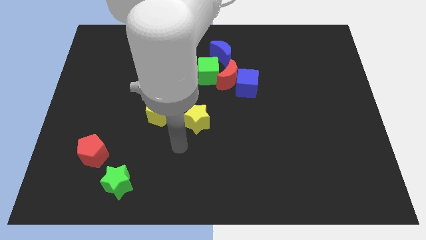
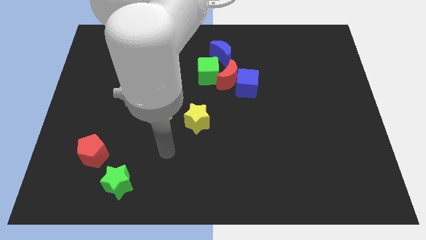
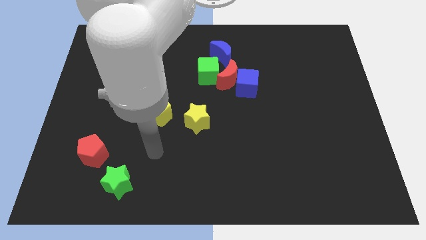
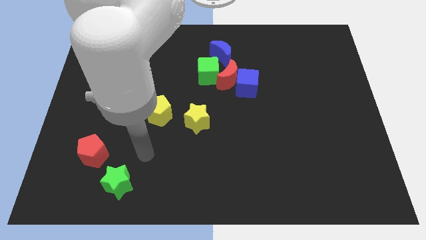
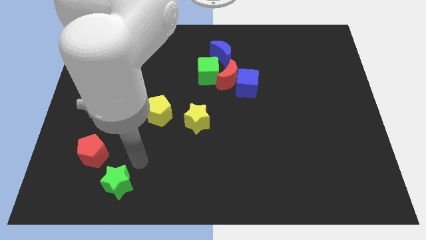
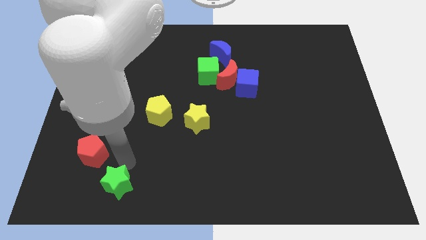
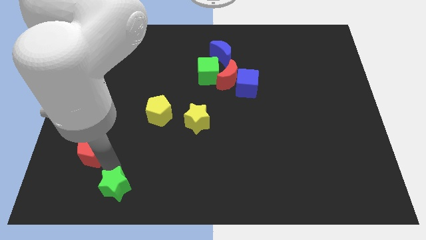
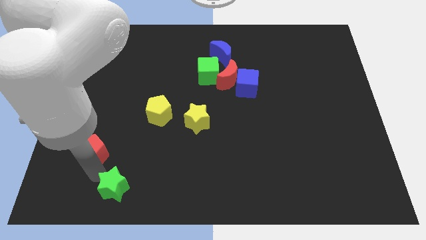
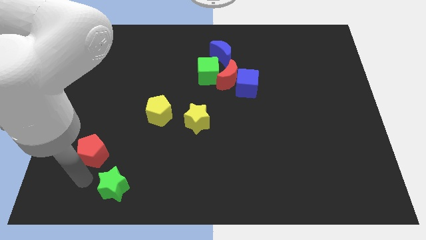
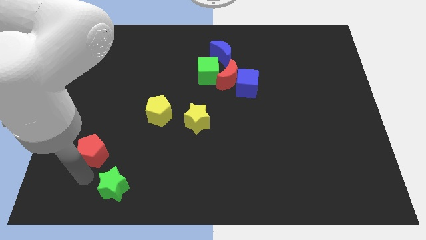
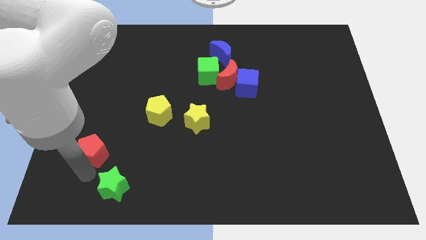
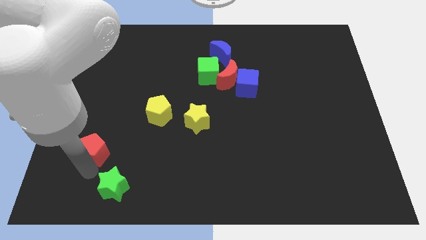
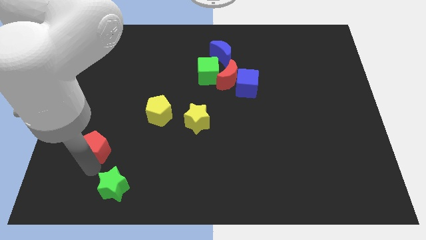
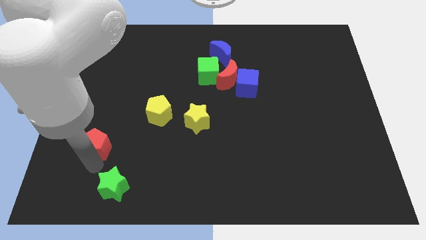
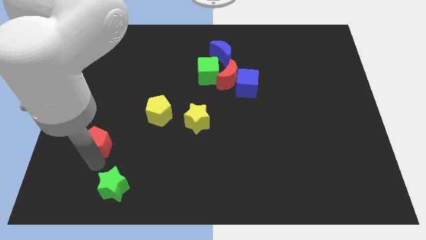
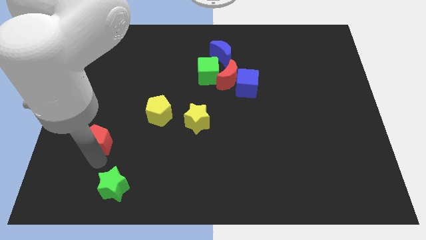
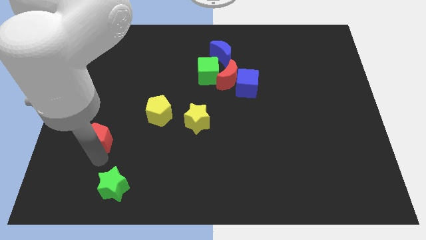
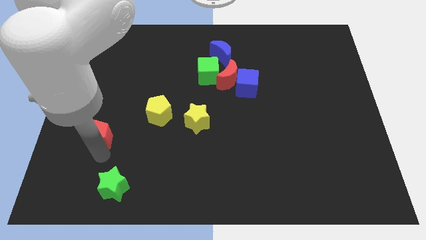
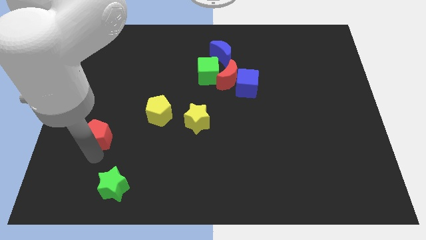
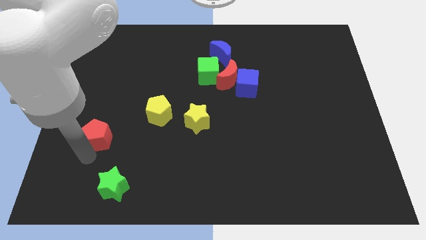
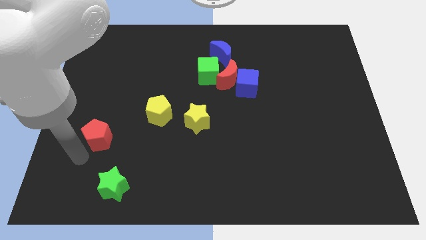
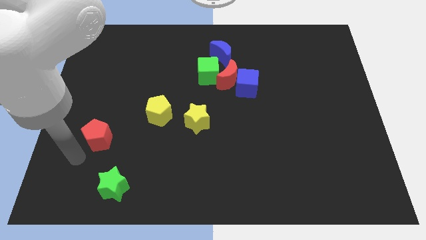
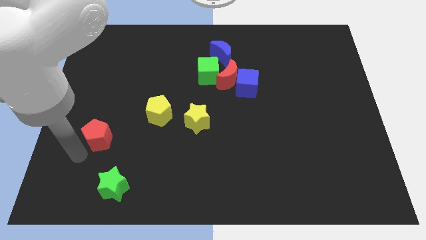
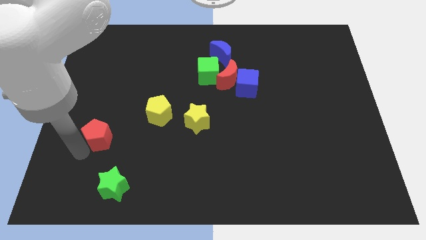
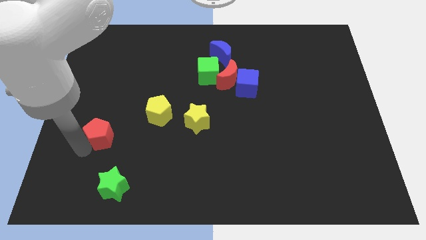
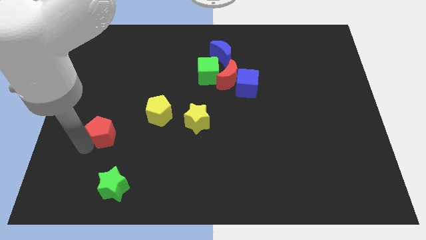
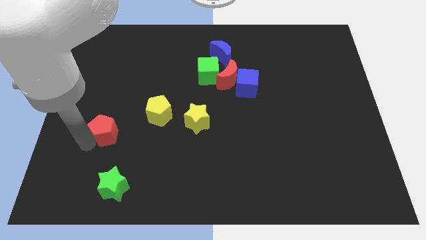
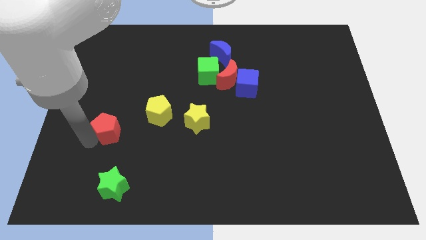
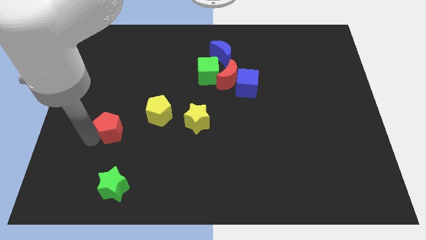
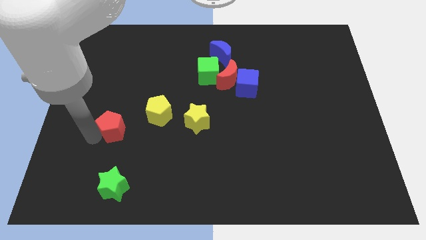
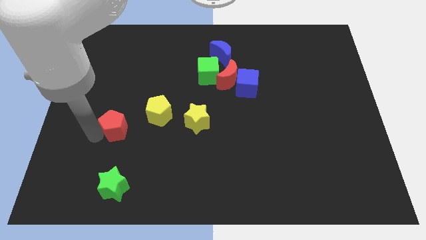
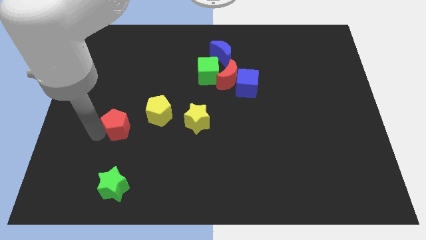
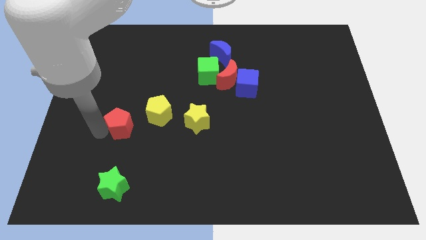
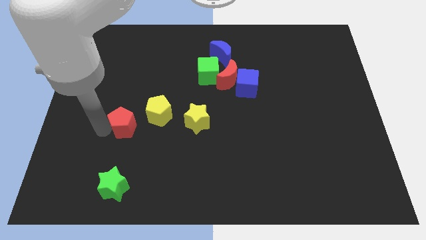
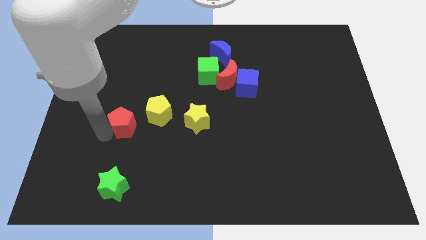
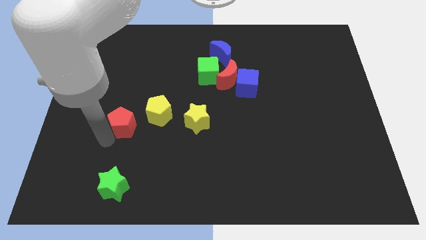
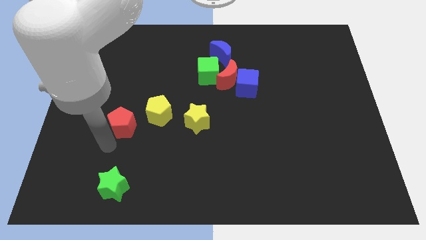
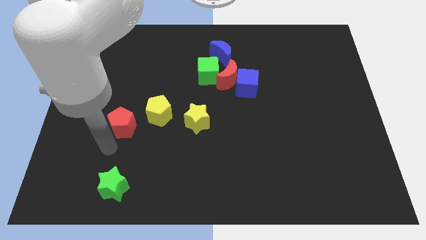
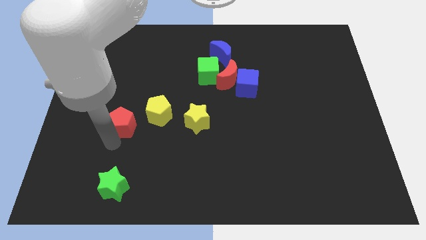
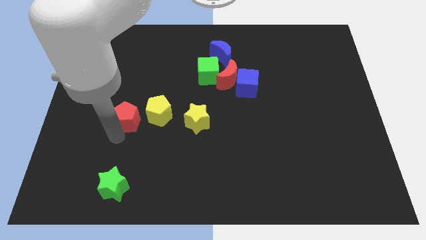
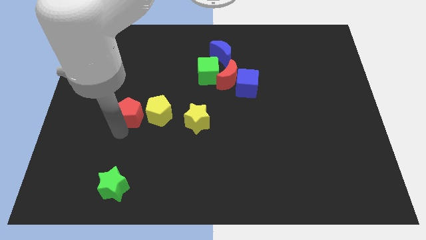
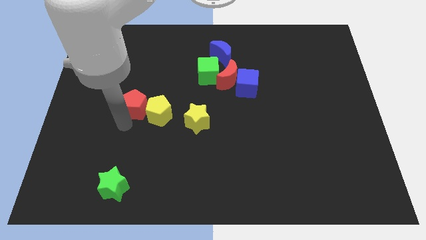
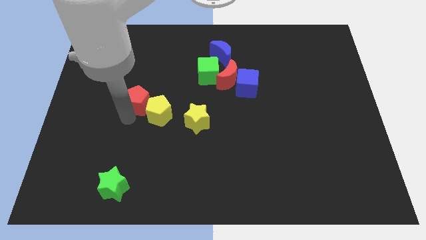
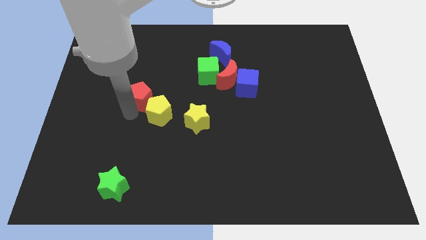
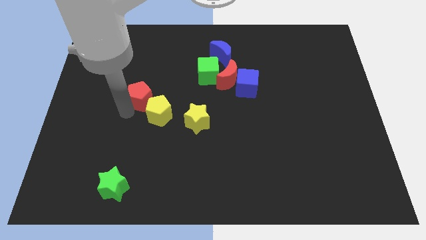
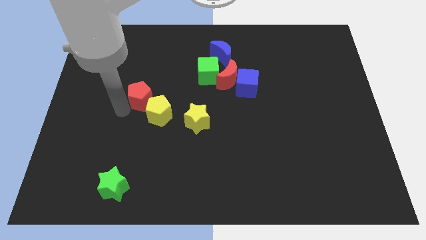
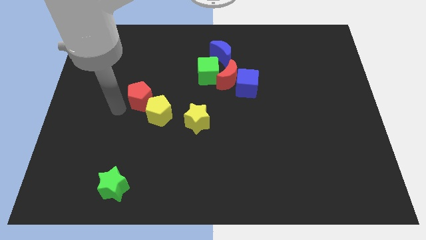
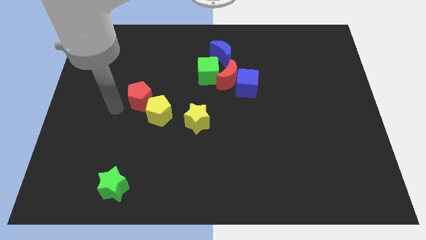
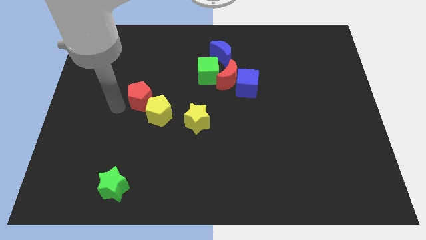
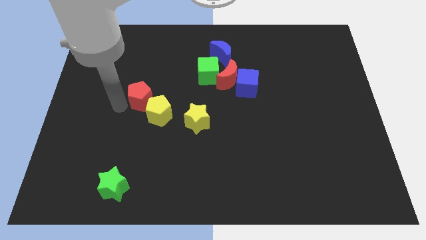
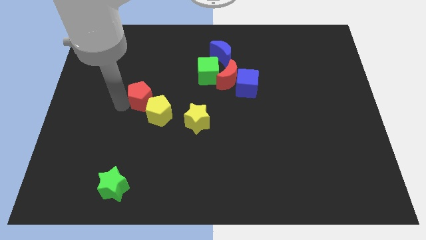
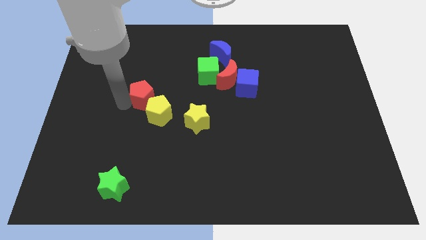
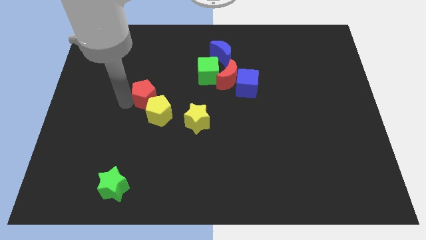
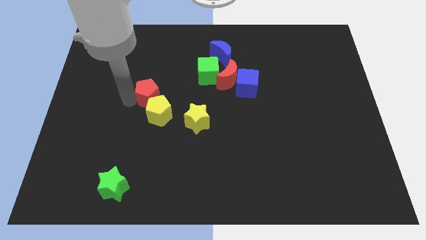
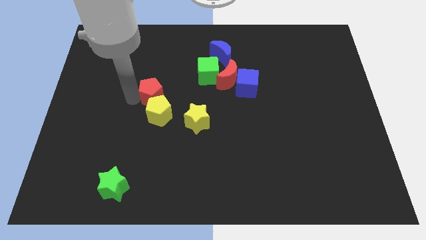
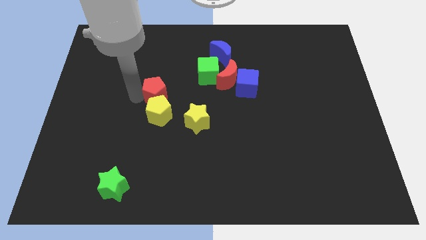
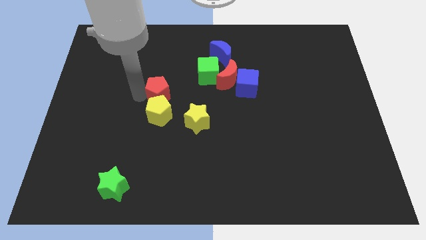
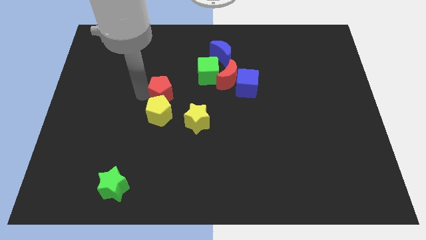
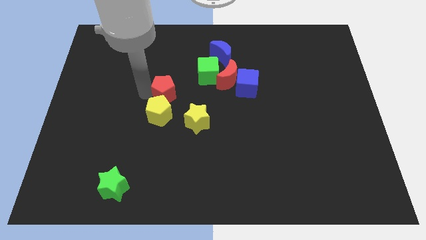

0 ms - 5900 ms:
push the red pentagon to the bottom left of the green cube
